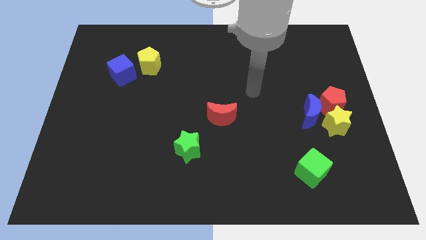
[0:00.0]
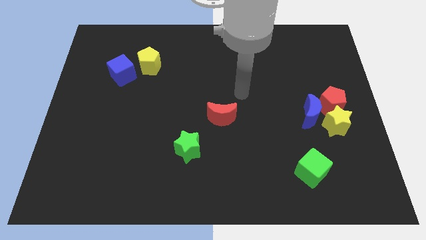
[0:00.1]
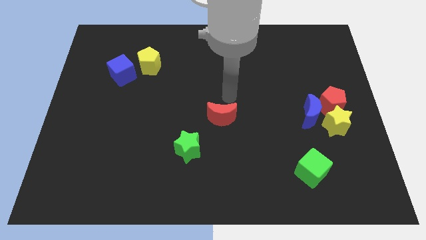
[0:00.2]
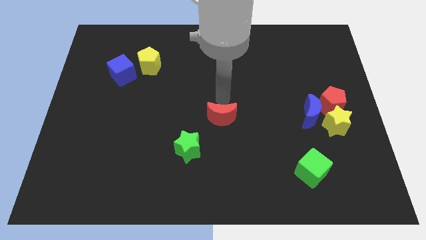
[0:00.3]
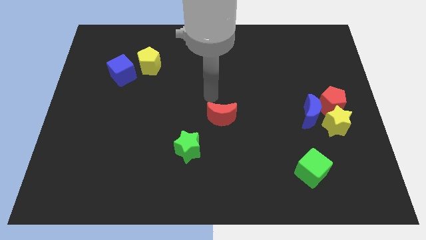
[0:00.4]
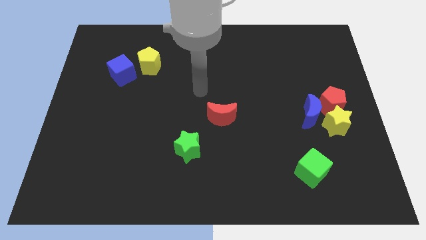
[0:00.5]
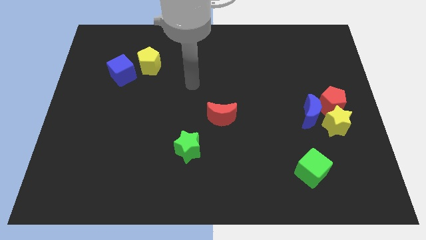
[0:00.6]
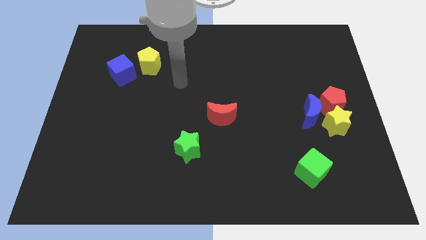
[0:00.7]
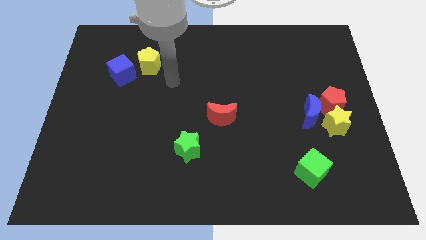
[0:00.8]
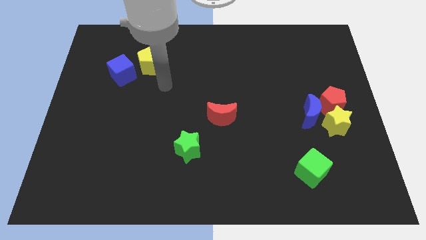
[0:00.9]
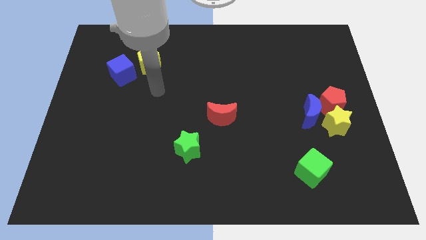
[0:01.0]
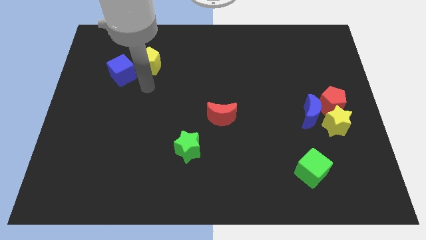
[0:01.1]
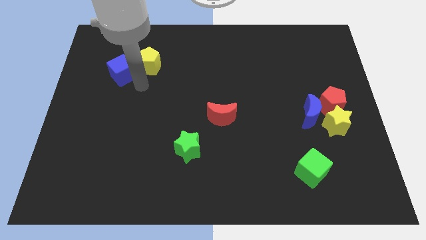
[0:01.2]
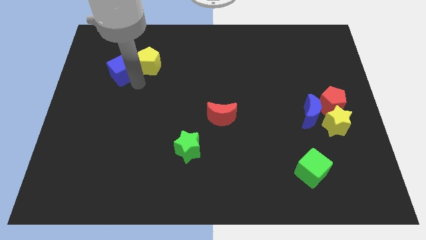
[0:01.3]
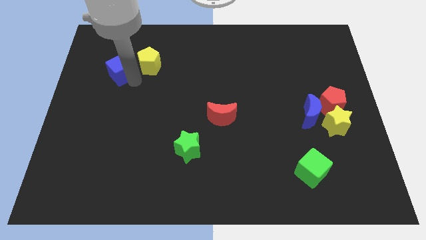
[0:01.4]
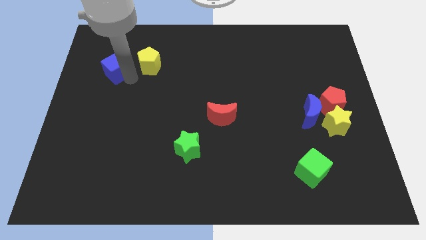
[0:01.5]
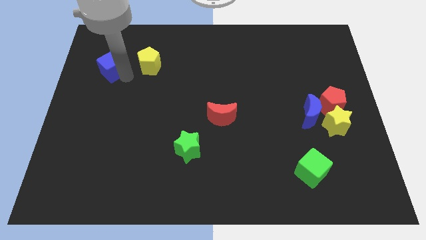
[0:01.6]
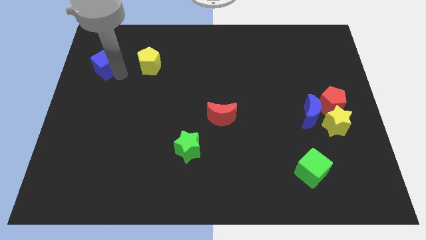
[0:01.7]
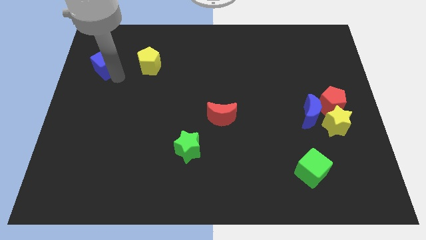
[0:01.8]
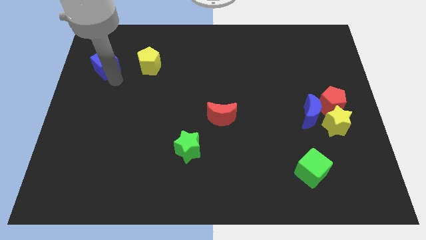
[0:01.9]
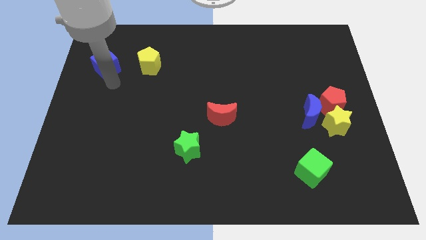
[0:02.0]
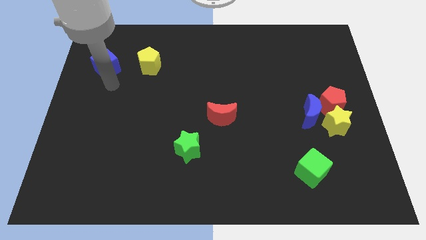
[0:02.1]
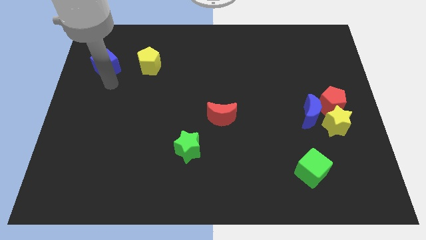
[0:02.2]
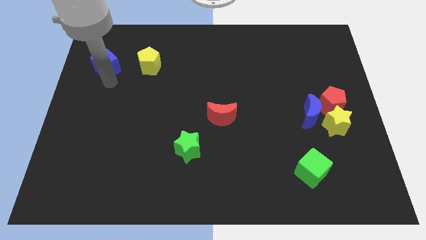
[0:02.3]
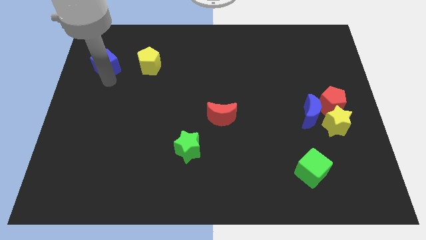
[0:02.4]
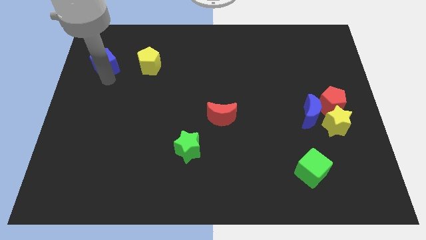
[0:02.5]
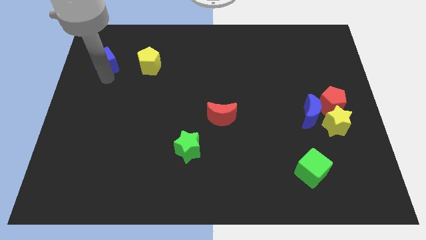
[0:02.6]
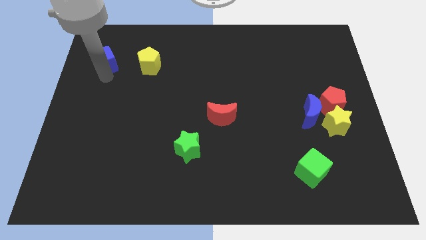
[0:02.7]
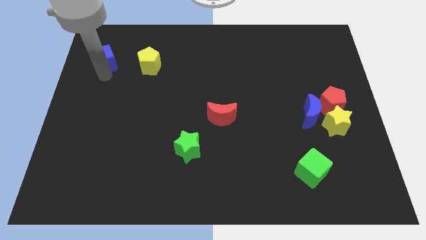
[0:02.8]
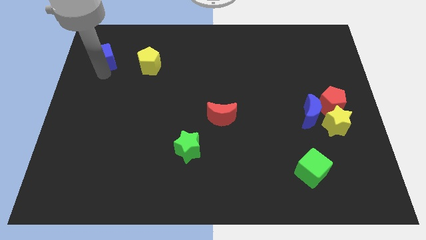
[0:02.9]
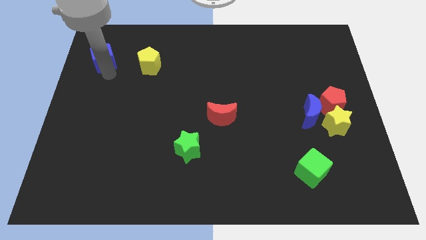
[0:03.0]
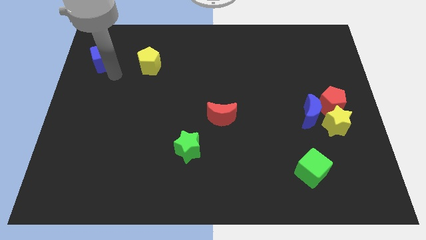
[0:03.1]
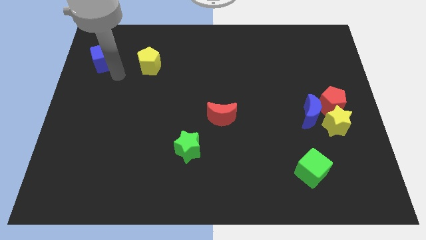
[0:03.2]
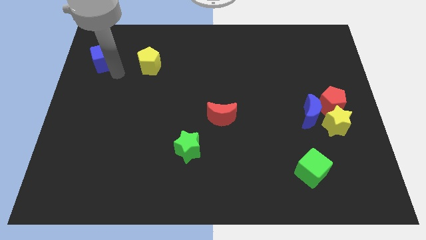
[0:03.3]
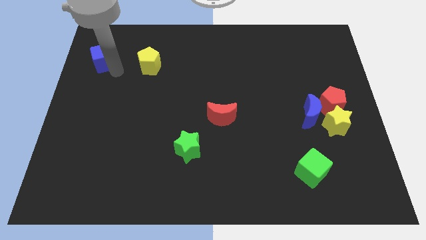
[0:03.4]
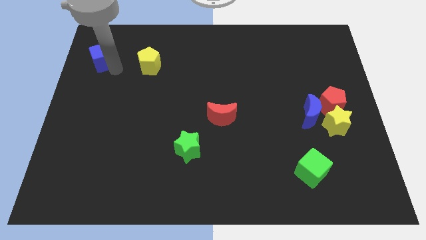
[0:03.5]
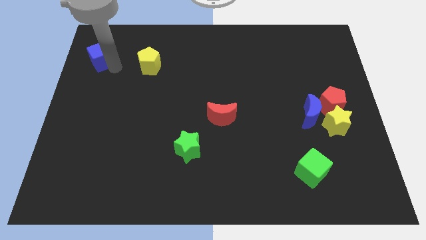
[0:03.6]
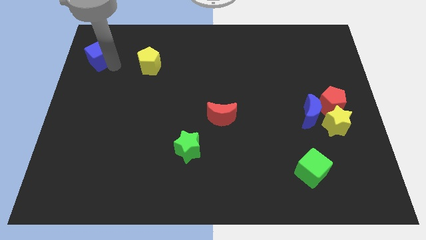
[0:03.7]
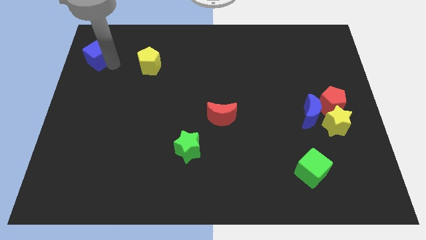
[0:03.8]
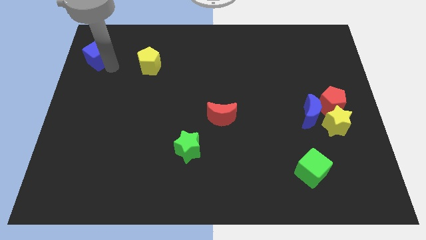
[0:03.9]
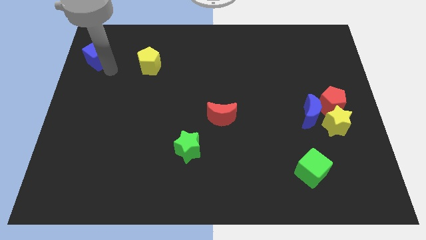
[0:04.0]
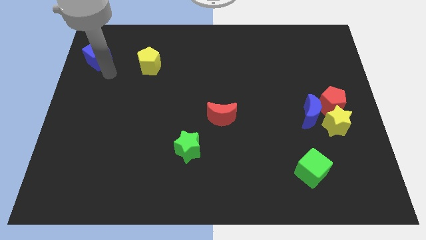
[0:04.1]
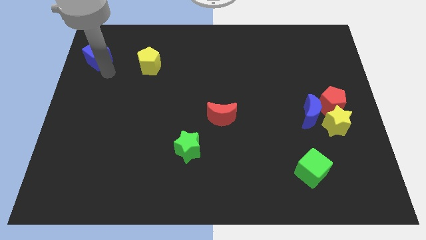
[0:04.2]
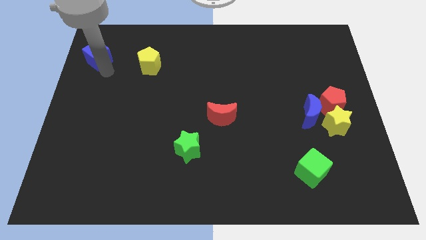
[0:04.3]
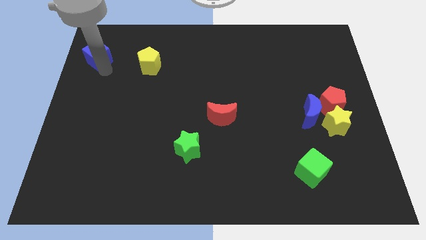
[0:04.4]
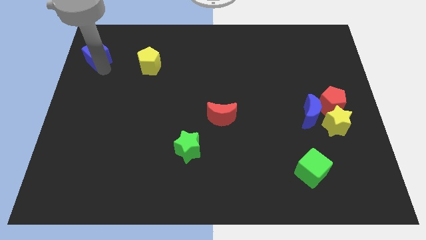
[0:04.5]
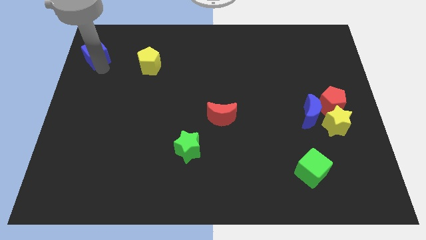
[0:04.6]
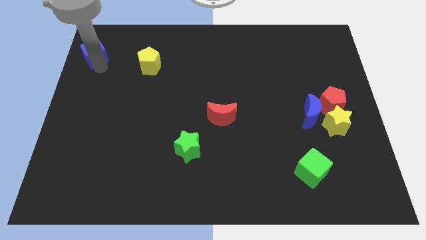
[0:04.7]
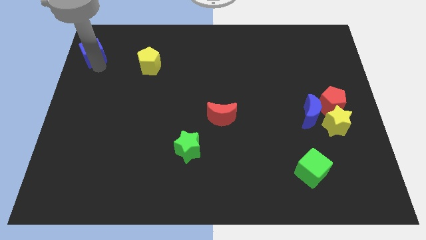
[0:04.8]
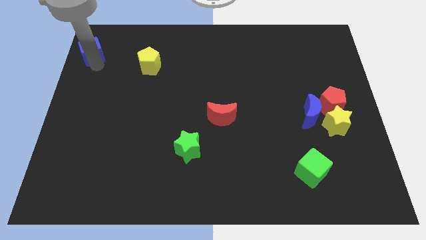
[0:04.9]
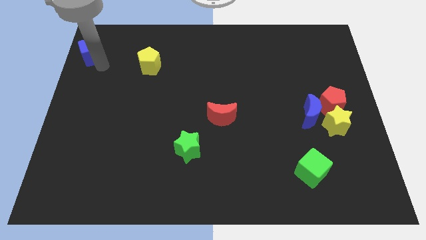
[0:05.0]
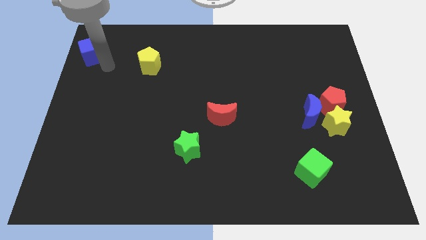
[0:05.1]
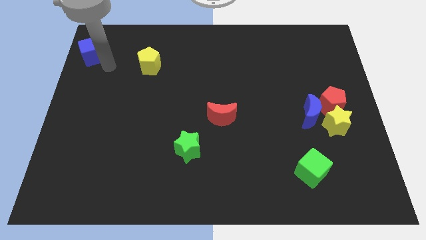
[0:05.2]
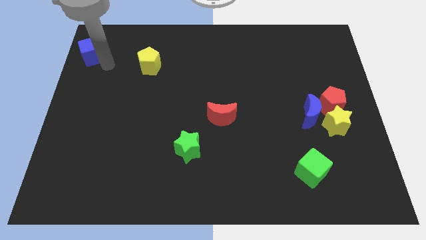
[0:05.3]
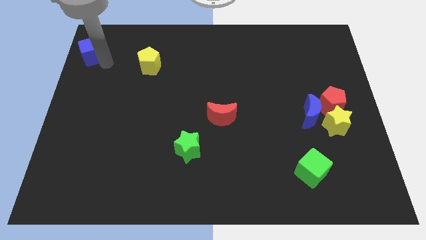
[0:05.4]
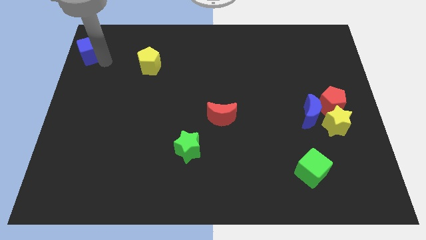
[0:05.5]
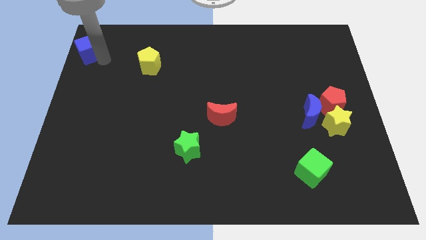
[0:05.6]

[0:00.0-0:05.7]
slide the blue cube to the top left corner

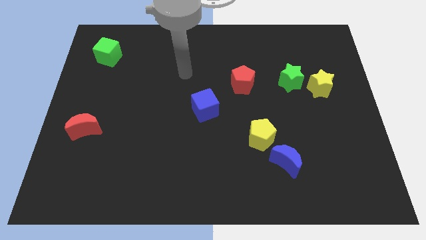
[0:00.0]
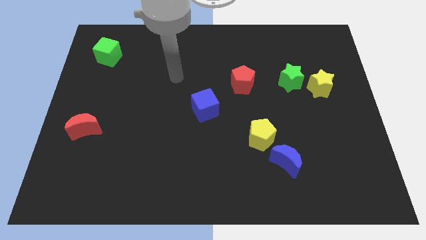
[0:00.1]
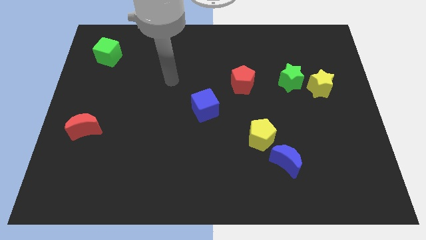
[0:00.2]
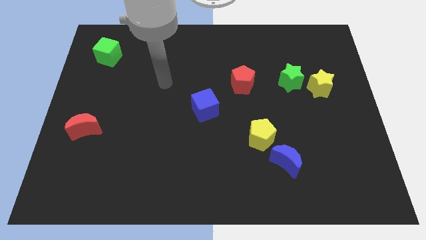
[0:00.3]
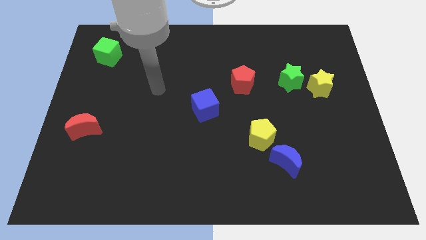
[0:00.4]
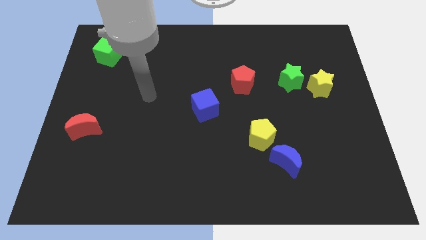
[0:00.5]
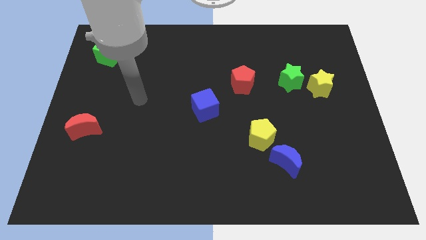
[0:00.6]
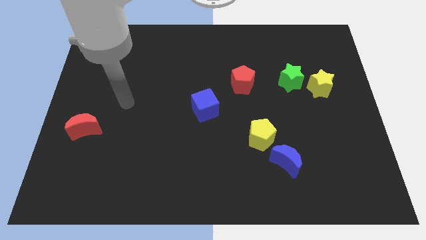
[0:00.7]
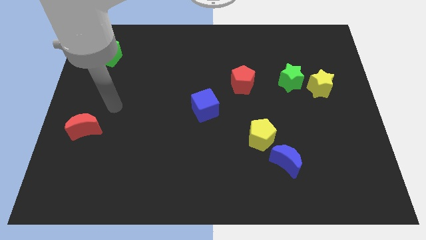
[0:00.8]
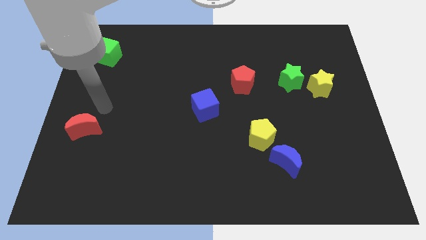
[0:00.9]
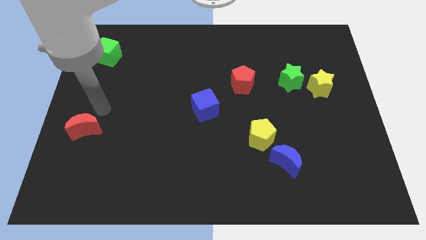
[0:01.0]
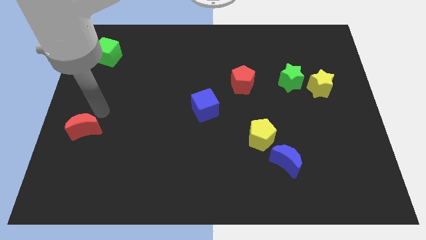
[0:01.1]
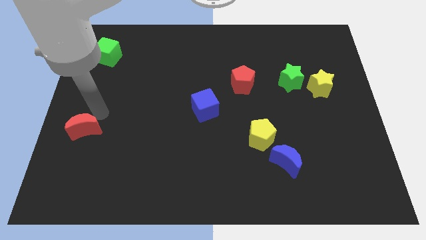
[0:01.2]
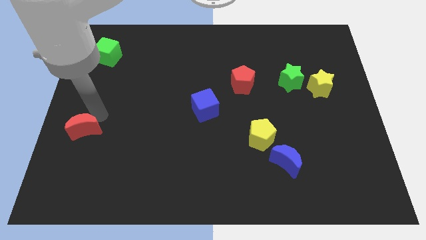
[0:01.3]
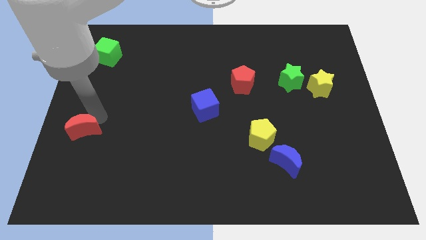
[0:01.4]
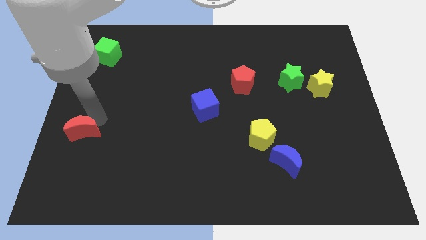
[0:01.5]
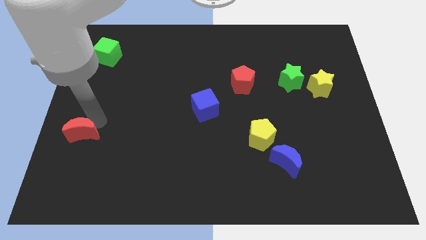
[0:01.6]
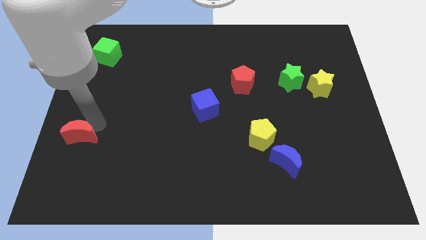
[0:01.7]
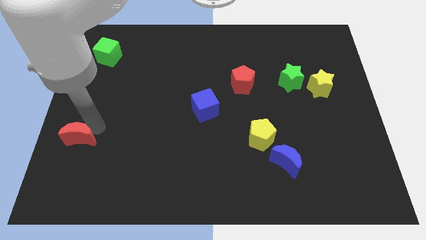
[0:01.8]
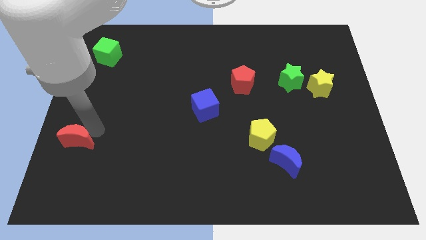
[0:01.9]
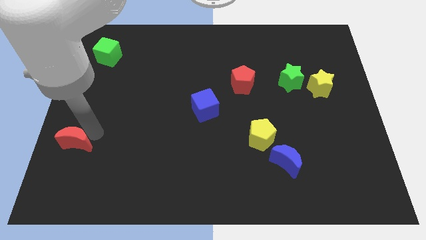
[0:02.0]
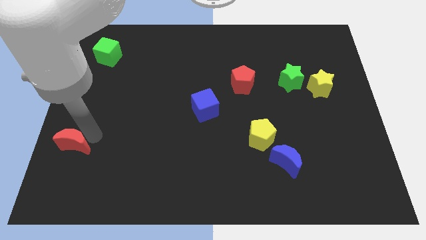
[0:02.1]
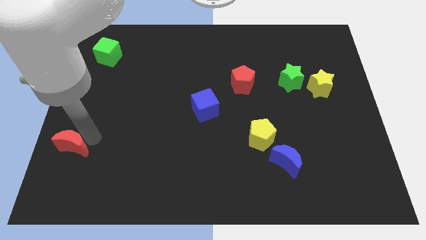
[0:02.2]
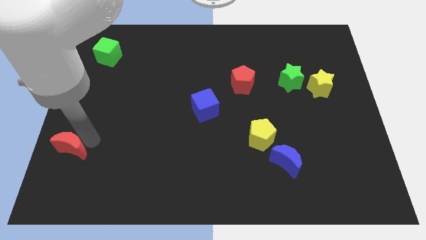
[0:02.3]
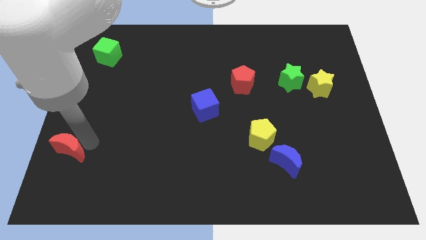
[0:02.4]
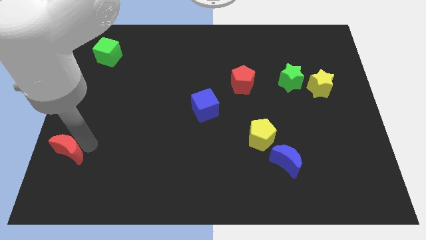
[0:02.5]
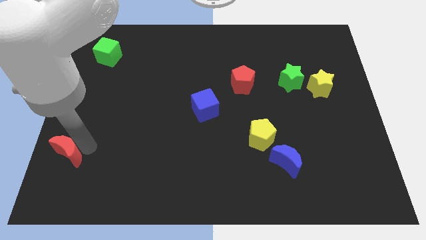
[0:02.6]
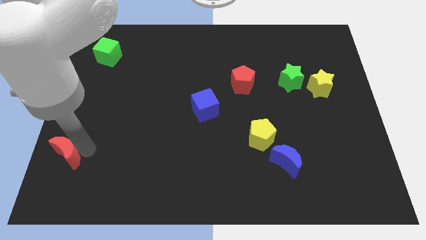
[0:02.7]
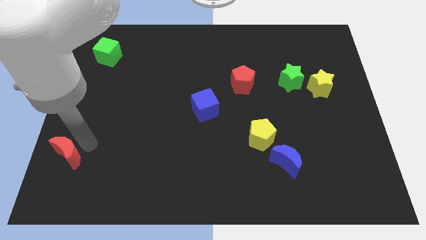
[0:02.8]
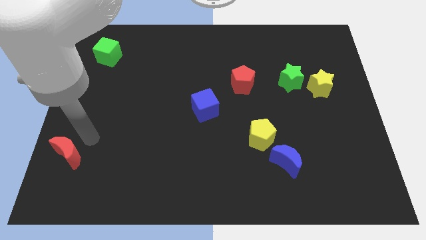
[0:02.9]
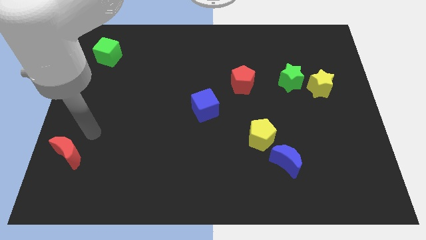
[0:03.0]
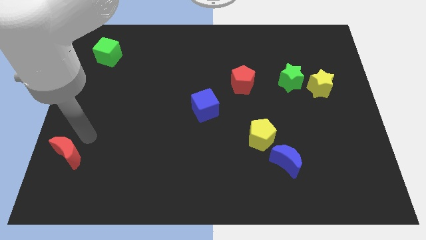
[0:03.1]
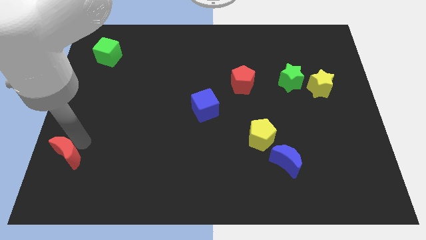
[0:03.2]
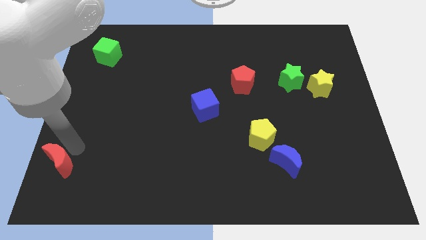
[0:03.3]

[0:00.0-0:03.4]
put the red moon to the bottom left
